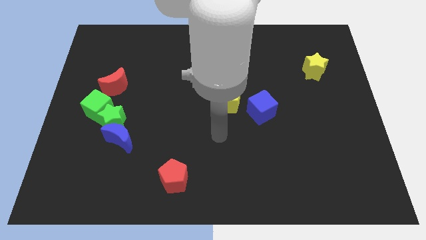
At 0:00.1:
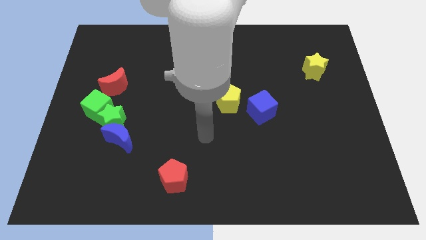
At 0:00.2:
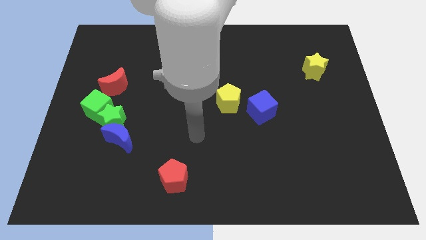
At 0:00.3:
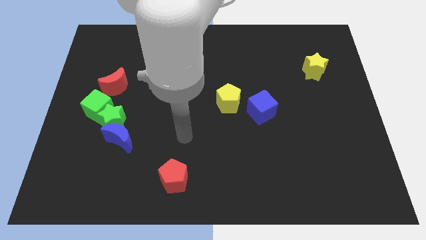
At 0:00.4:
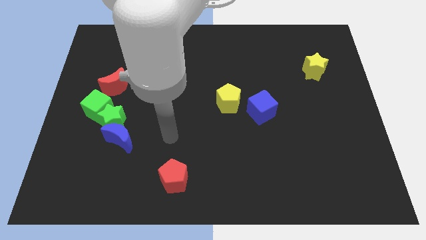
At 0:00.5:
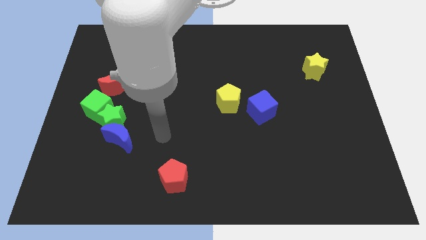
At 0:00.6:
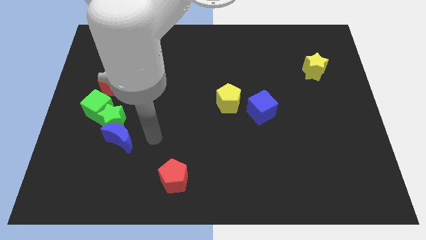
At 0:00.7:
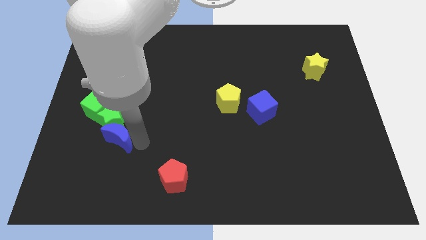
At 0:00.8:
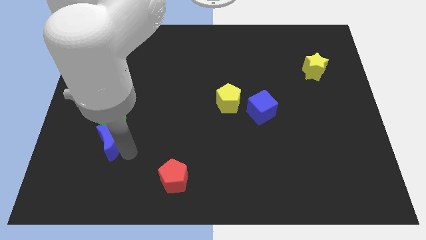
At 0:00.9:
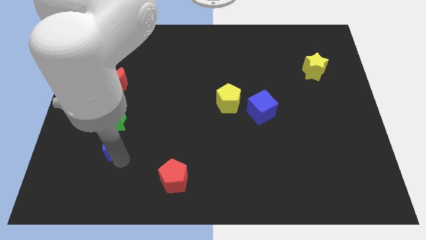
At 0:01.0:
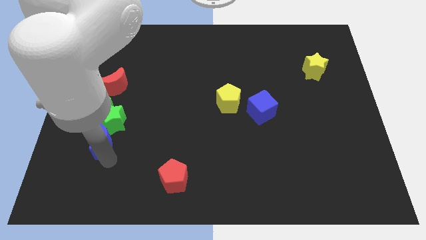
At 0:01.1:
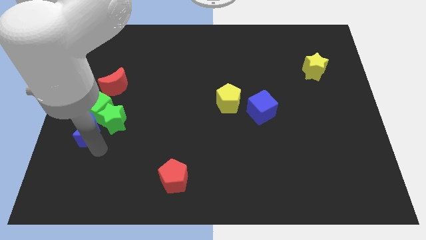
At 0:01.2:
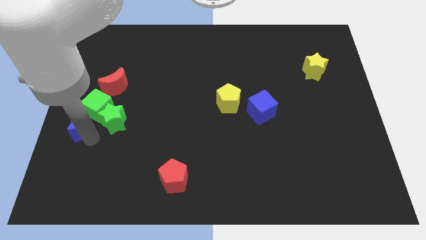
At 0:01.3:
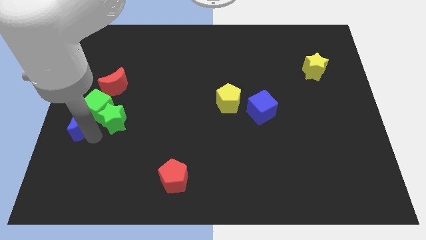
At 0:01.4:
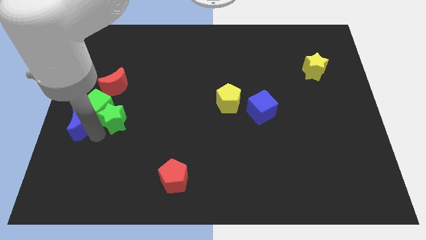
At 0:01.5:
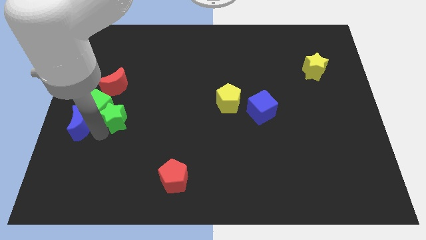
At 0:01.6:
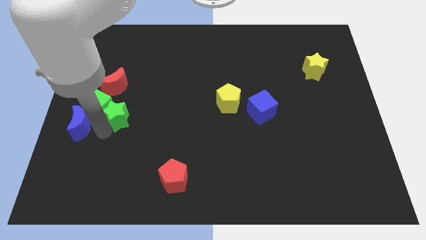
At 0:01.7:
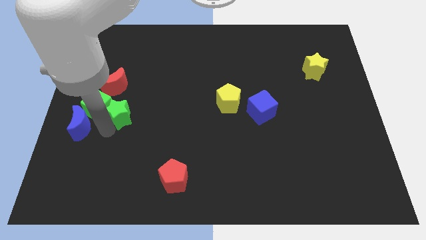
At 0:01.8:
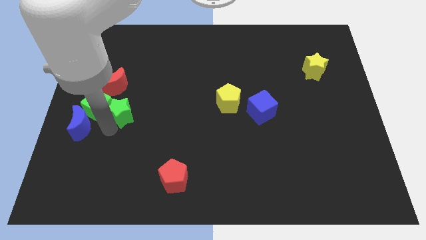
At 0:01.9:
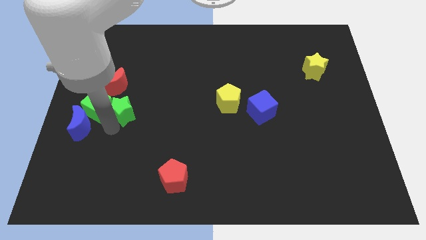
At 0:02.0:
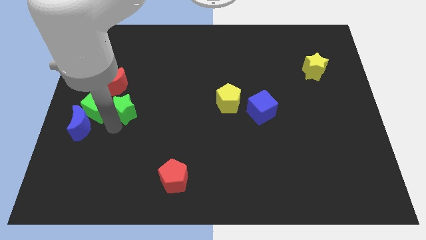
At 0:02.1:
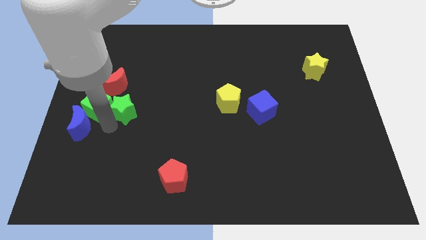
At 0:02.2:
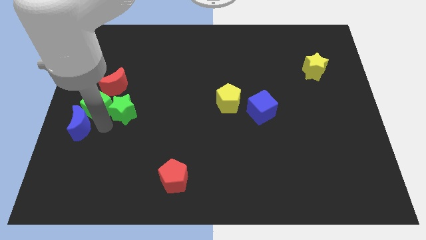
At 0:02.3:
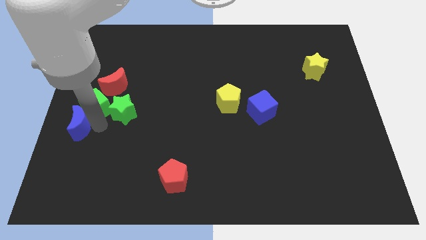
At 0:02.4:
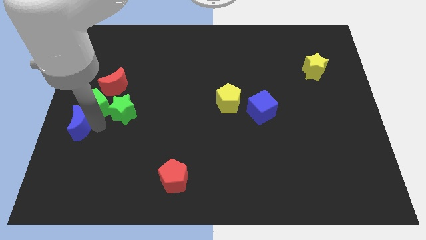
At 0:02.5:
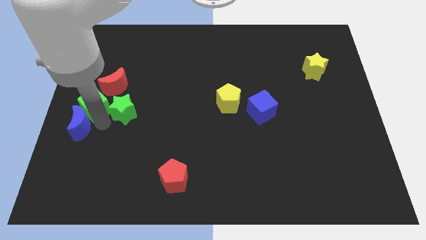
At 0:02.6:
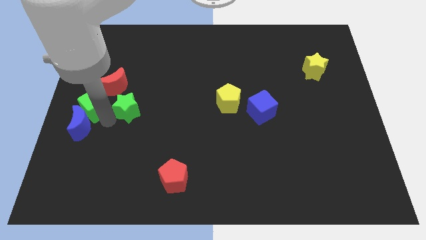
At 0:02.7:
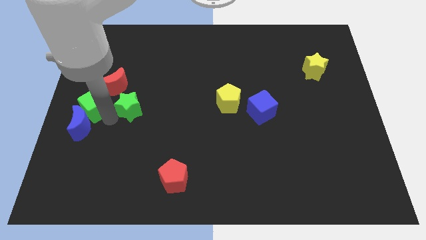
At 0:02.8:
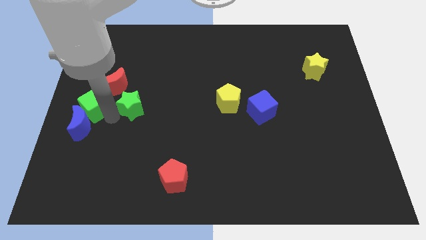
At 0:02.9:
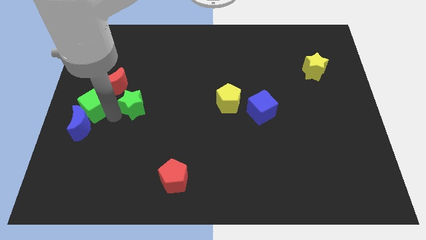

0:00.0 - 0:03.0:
separate the green star from the green cube and blue moon

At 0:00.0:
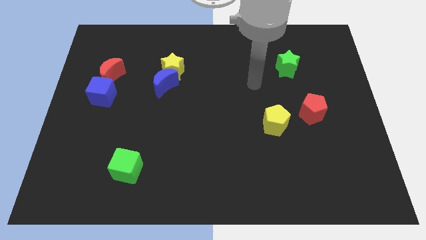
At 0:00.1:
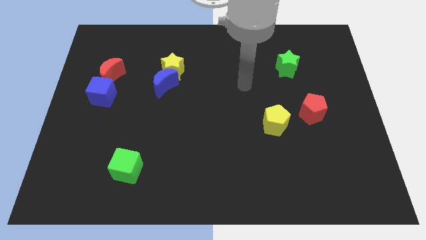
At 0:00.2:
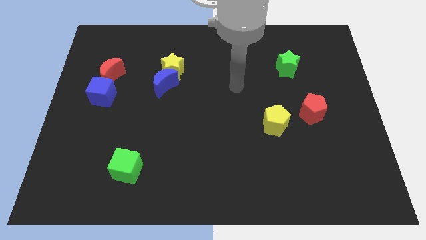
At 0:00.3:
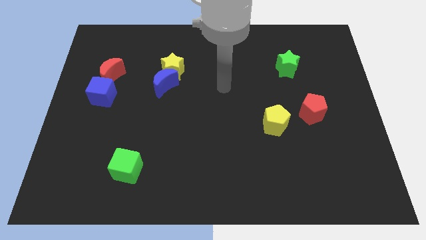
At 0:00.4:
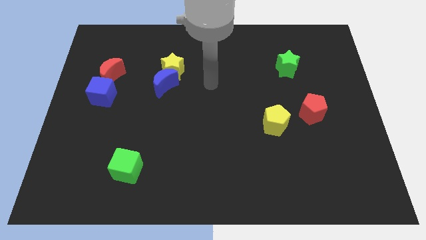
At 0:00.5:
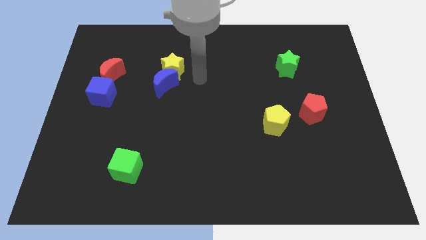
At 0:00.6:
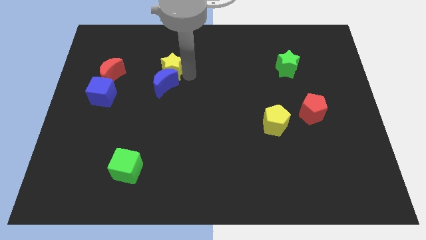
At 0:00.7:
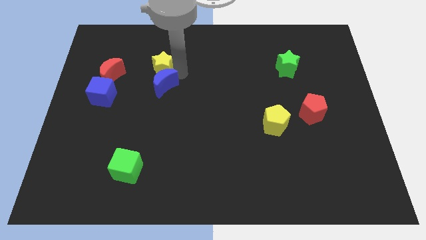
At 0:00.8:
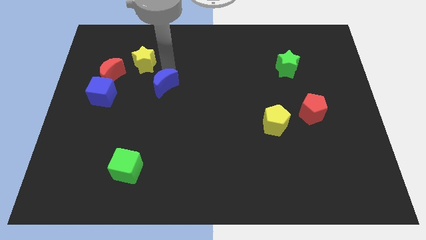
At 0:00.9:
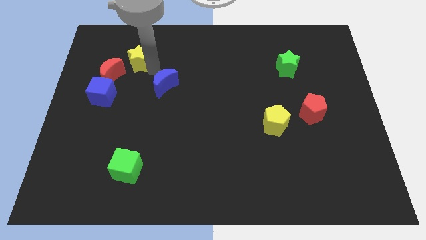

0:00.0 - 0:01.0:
pull the blue moon apart from the yellow star

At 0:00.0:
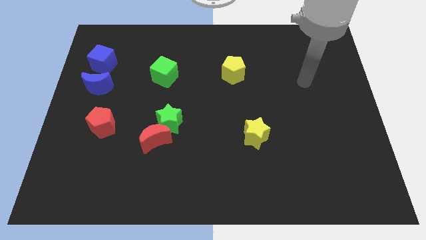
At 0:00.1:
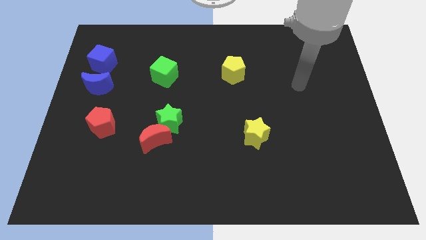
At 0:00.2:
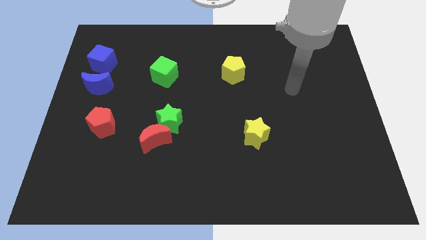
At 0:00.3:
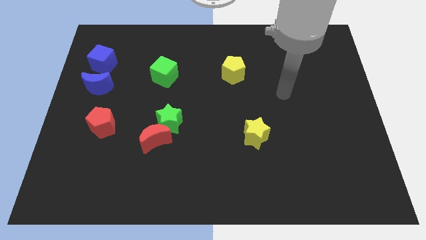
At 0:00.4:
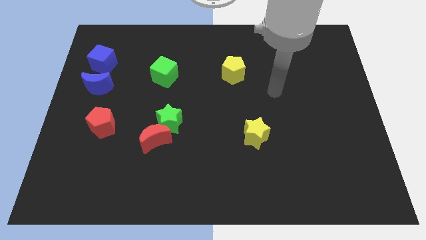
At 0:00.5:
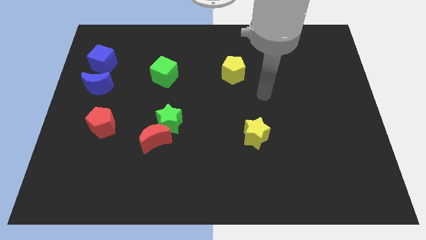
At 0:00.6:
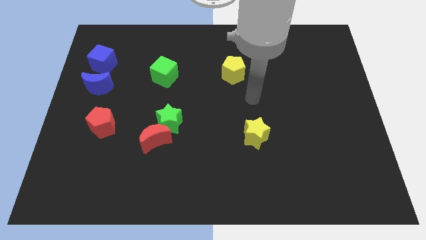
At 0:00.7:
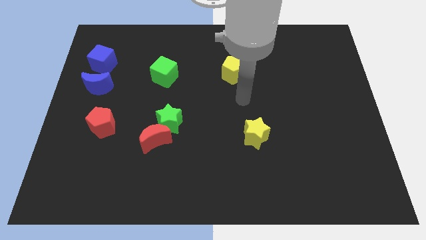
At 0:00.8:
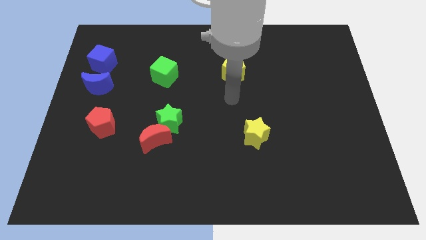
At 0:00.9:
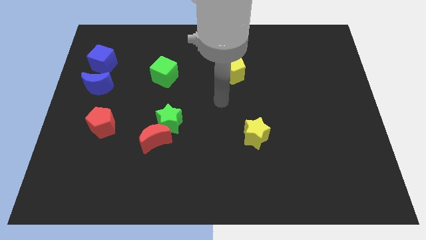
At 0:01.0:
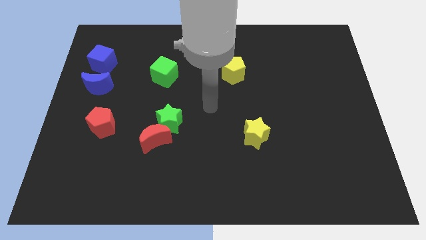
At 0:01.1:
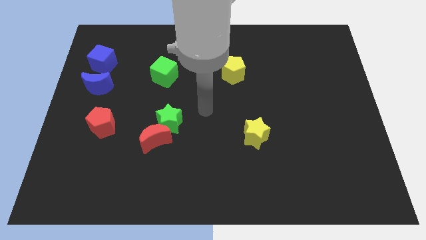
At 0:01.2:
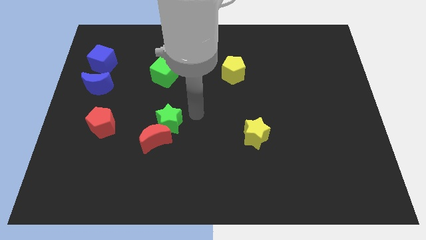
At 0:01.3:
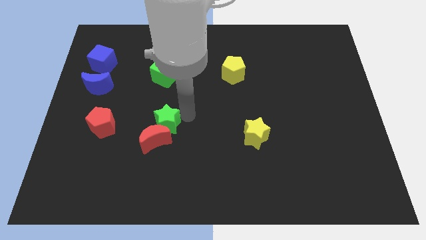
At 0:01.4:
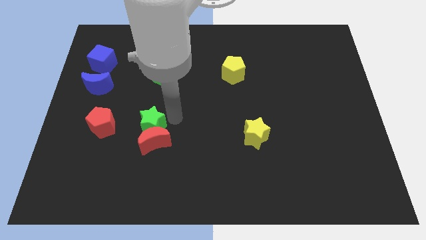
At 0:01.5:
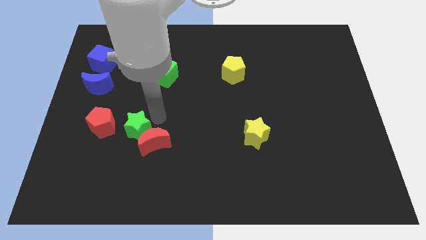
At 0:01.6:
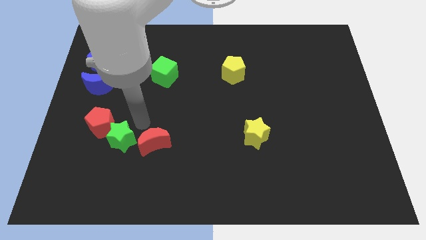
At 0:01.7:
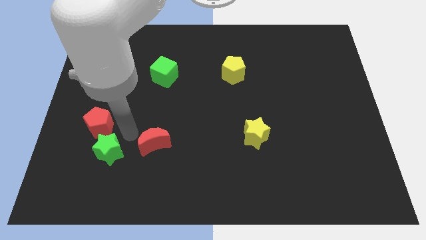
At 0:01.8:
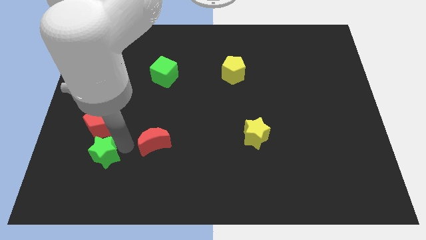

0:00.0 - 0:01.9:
separate the red moon from the green star

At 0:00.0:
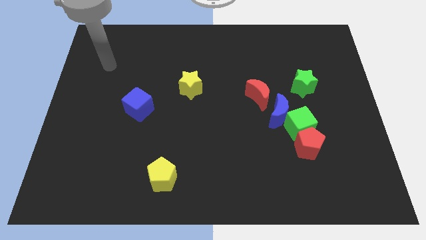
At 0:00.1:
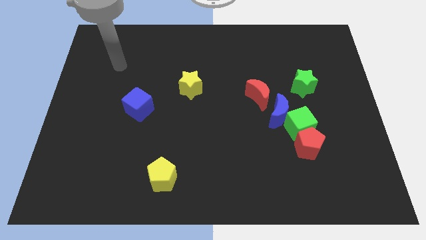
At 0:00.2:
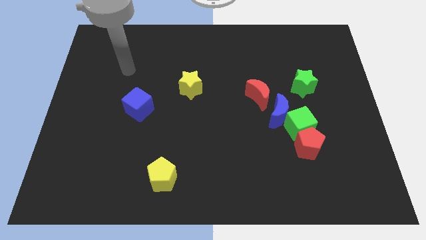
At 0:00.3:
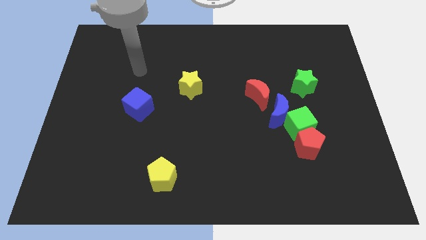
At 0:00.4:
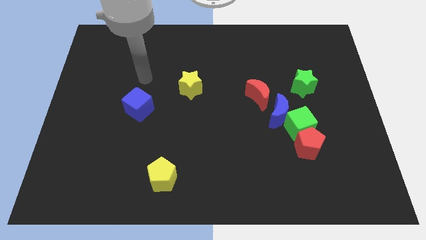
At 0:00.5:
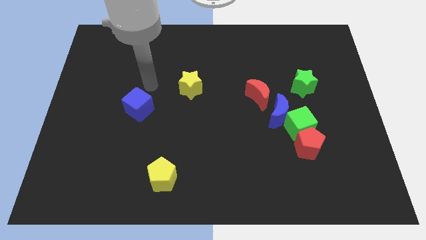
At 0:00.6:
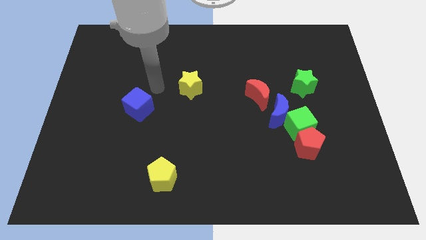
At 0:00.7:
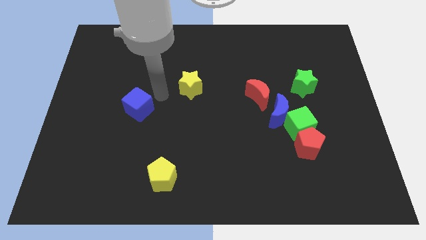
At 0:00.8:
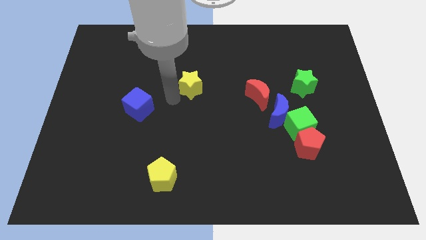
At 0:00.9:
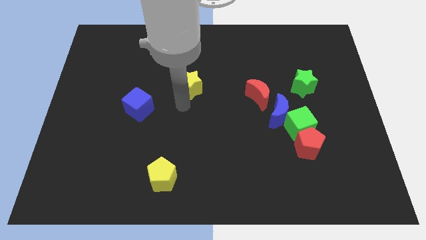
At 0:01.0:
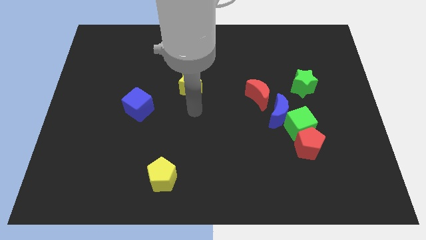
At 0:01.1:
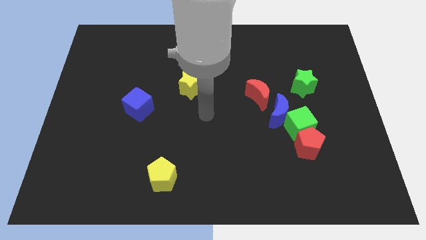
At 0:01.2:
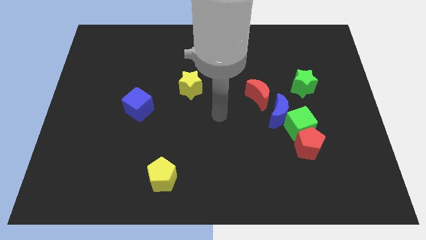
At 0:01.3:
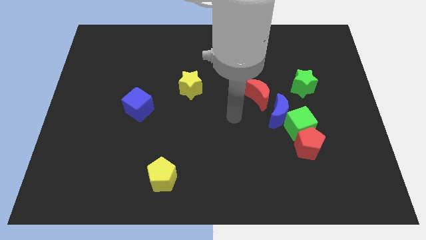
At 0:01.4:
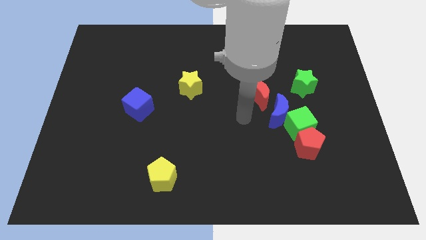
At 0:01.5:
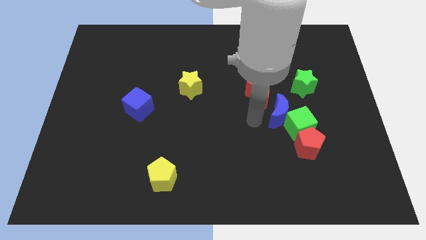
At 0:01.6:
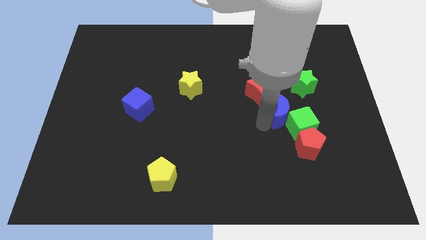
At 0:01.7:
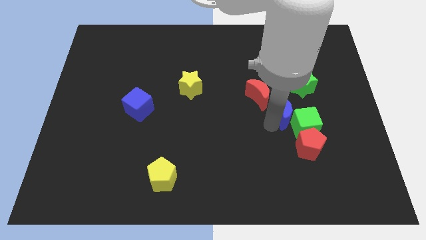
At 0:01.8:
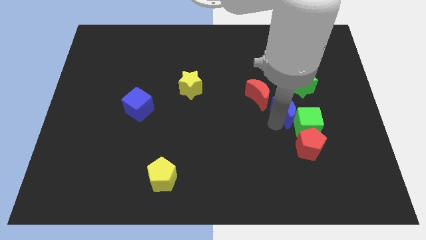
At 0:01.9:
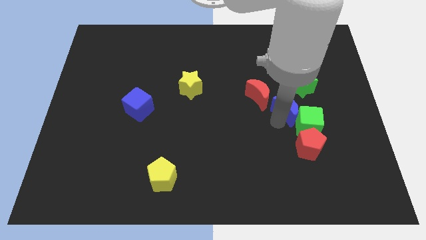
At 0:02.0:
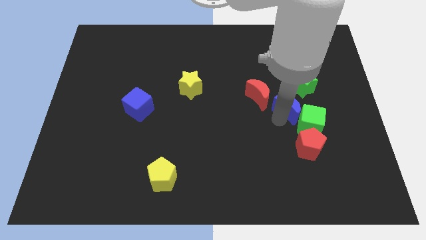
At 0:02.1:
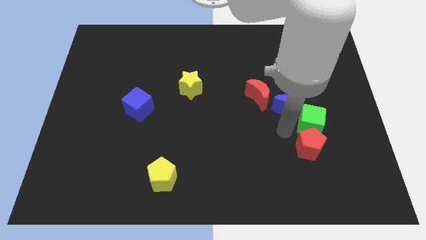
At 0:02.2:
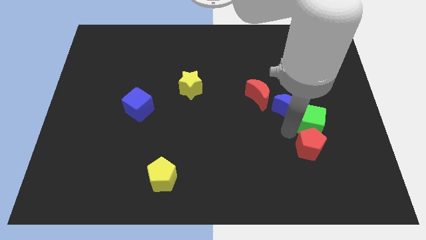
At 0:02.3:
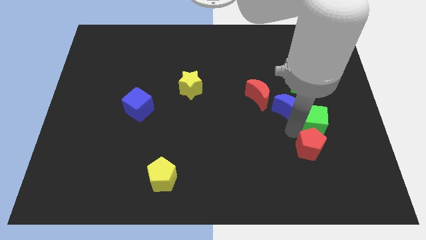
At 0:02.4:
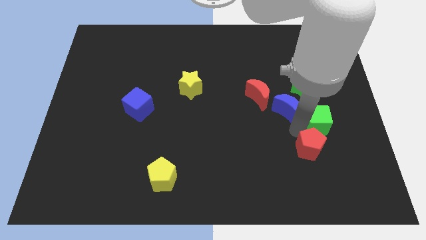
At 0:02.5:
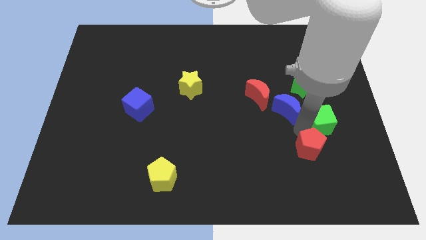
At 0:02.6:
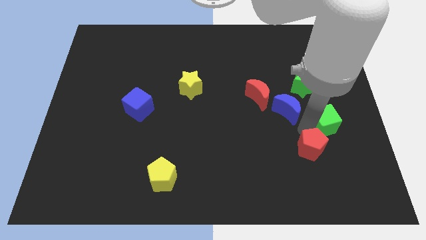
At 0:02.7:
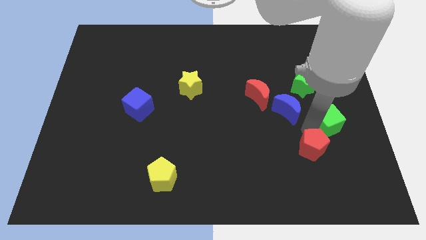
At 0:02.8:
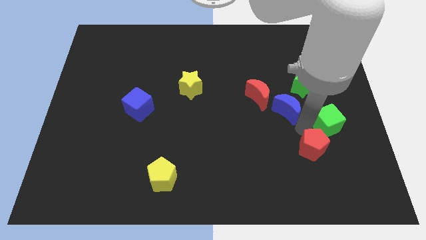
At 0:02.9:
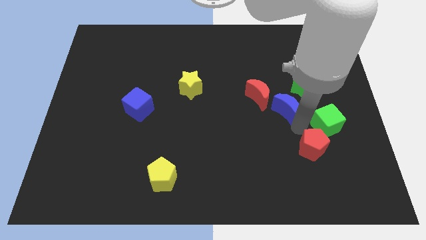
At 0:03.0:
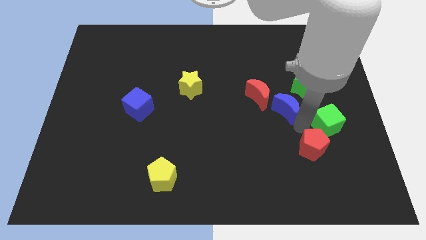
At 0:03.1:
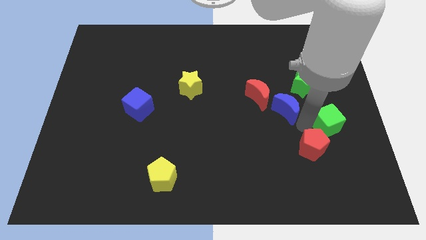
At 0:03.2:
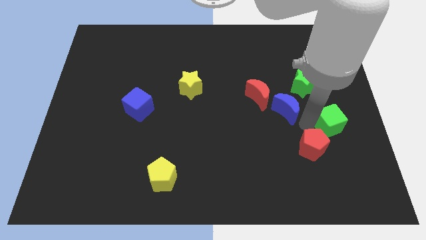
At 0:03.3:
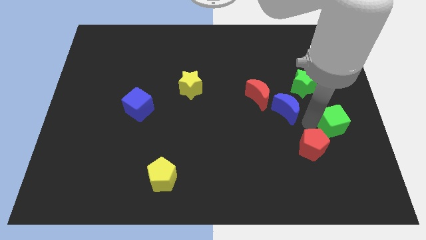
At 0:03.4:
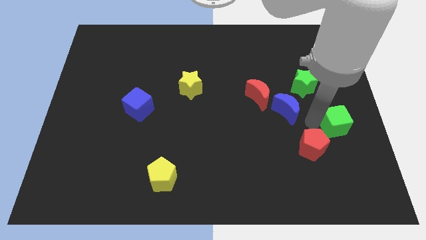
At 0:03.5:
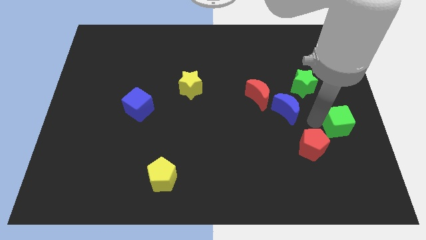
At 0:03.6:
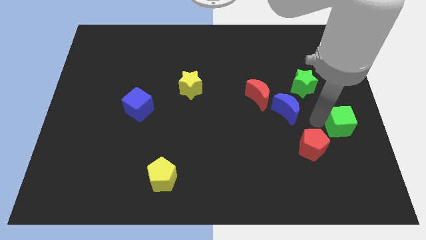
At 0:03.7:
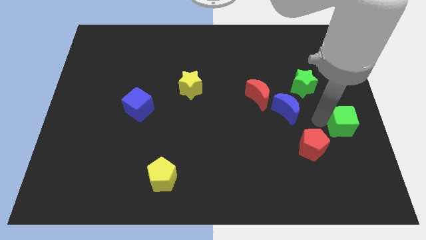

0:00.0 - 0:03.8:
separate the green cube from the blue moon and red pentagon
